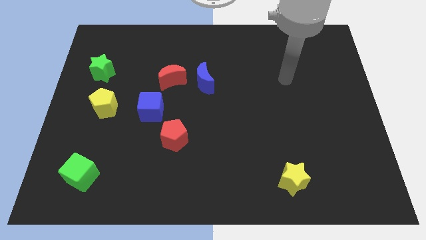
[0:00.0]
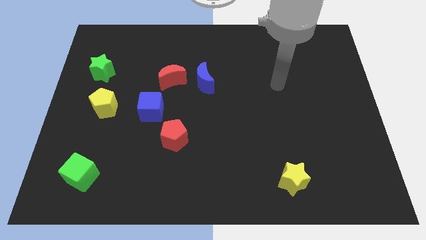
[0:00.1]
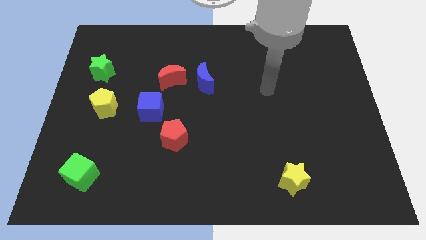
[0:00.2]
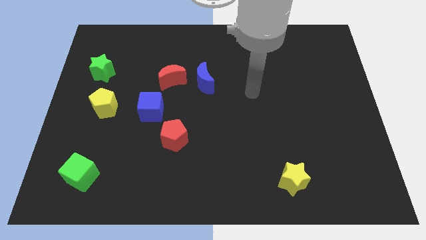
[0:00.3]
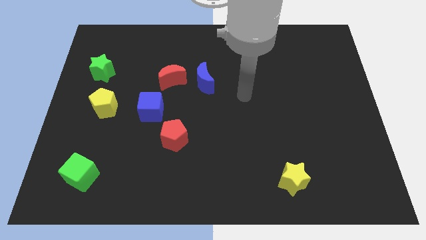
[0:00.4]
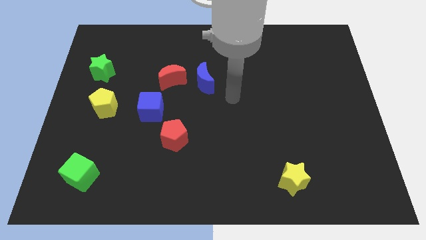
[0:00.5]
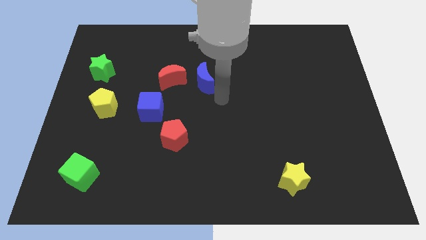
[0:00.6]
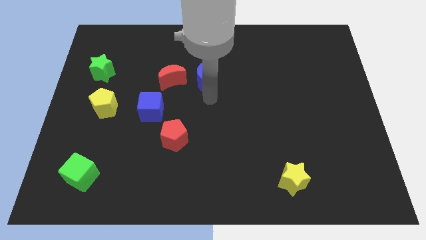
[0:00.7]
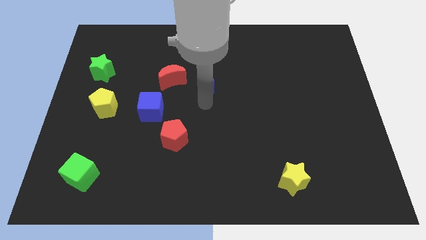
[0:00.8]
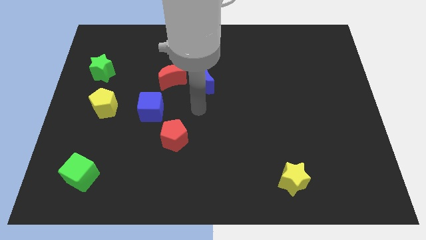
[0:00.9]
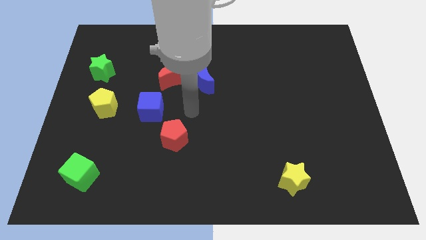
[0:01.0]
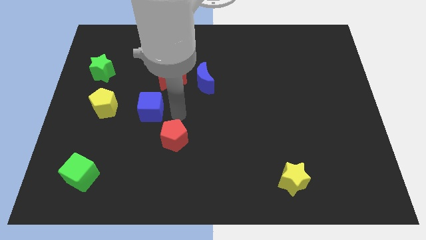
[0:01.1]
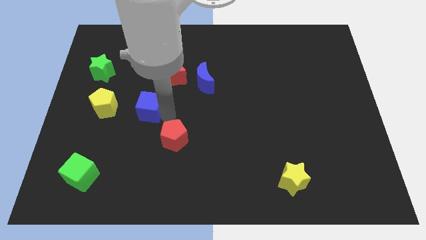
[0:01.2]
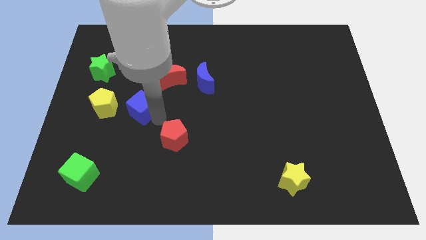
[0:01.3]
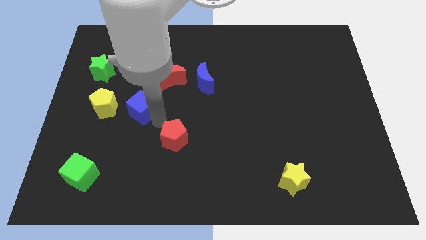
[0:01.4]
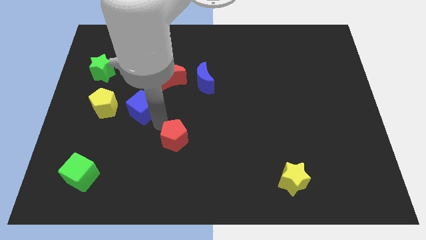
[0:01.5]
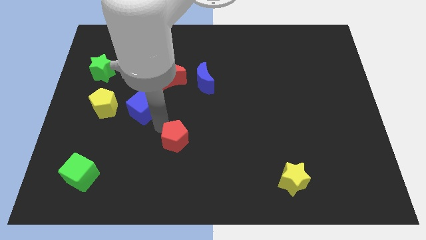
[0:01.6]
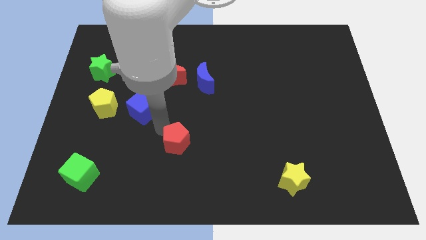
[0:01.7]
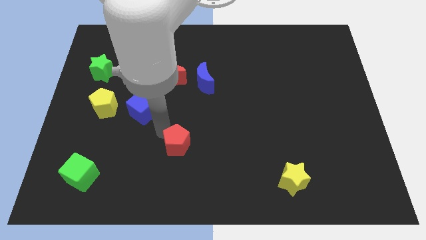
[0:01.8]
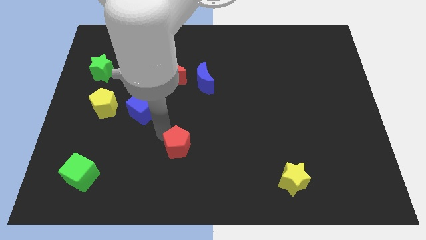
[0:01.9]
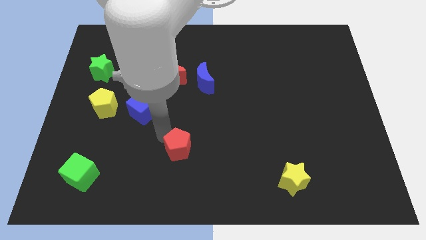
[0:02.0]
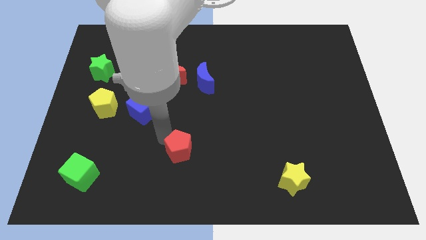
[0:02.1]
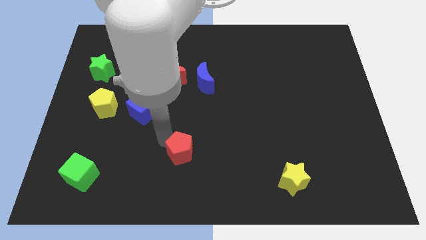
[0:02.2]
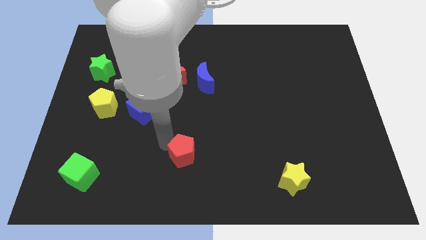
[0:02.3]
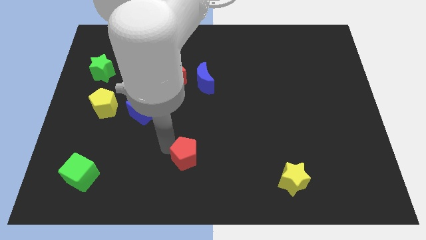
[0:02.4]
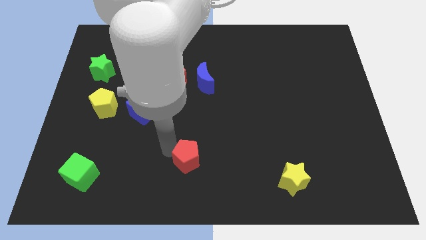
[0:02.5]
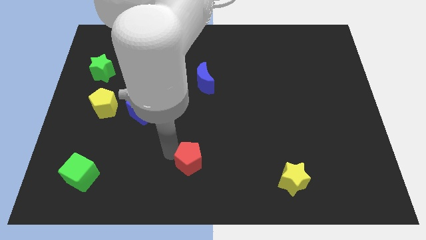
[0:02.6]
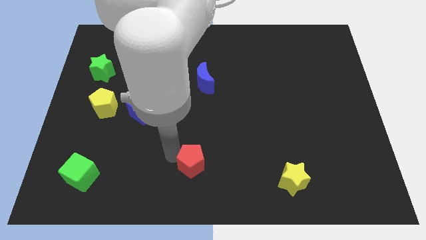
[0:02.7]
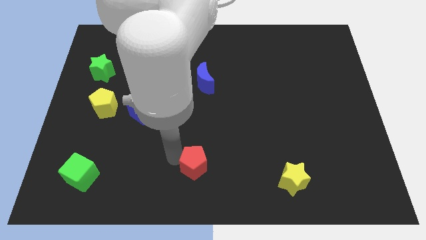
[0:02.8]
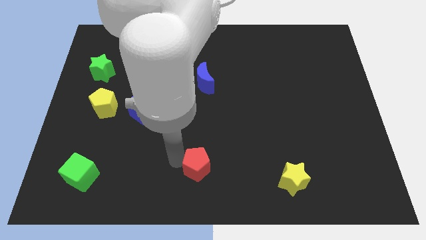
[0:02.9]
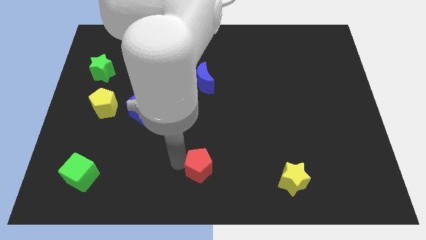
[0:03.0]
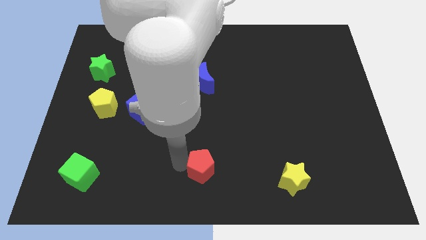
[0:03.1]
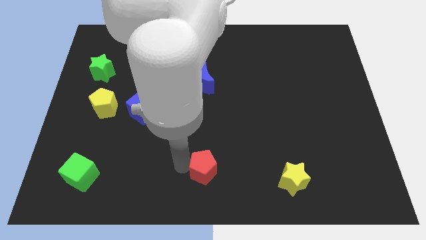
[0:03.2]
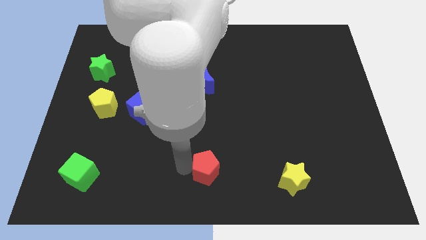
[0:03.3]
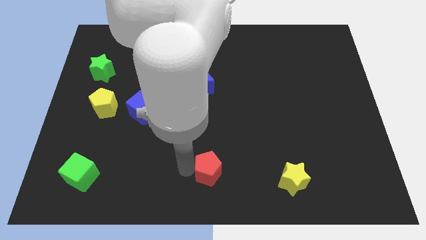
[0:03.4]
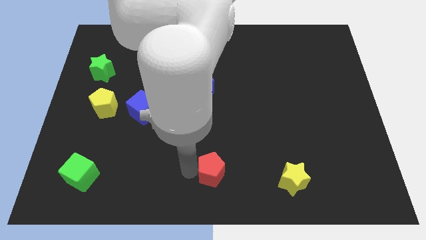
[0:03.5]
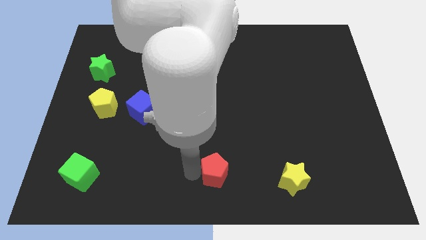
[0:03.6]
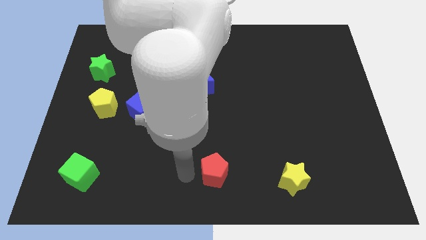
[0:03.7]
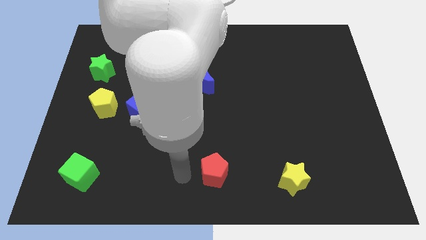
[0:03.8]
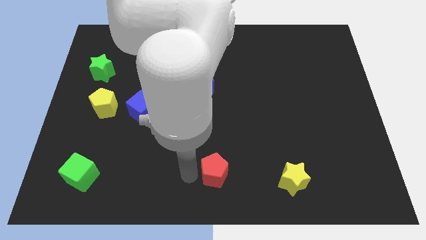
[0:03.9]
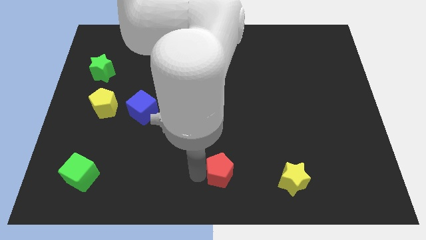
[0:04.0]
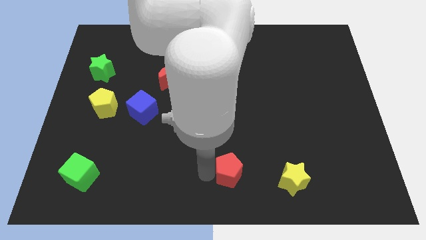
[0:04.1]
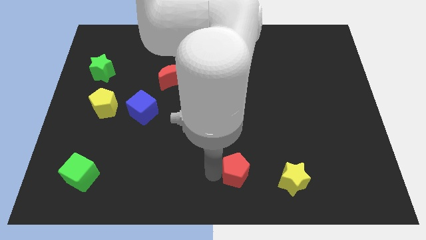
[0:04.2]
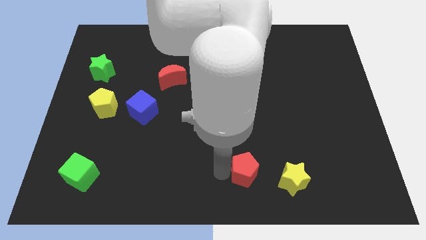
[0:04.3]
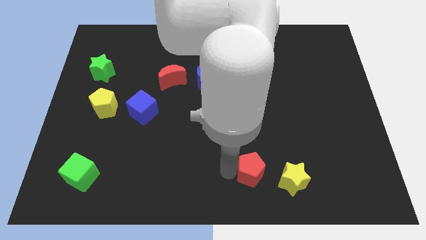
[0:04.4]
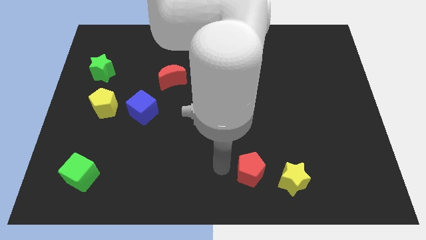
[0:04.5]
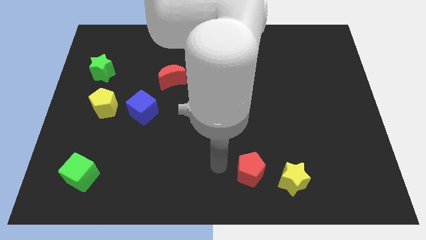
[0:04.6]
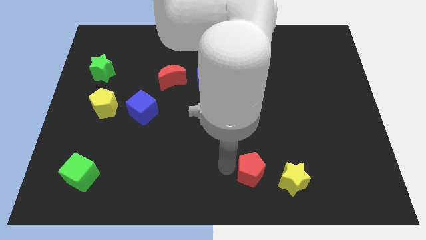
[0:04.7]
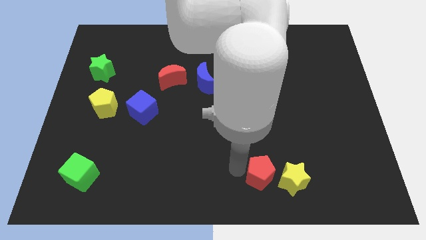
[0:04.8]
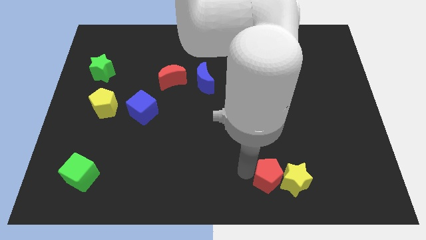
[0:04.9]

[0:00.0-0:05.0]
slide the red pentagon towards the yellow star

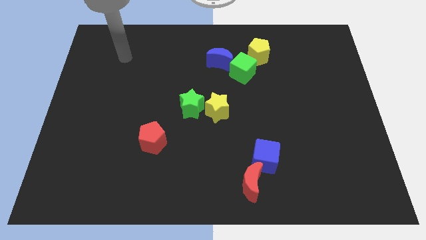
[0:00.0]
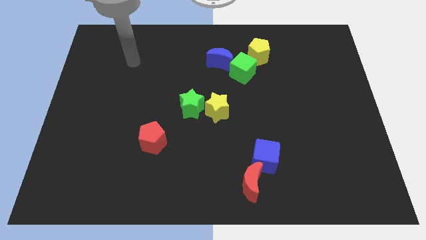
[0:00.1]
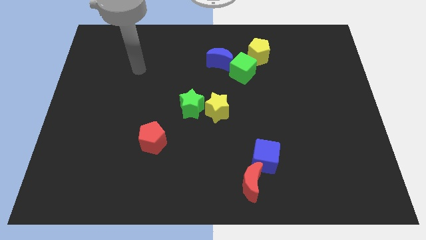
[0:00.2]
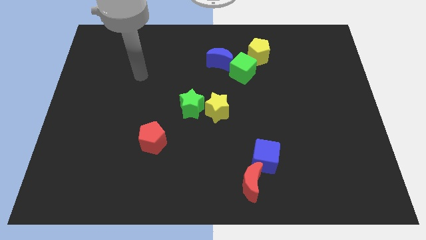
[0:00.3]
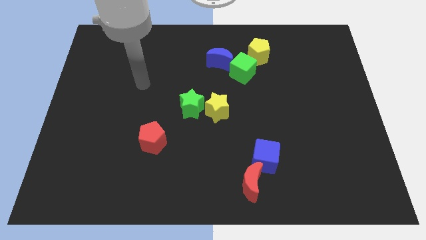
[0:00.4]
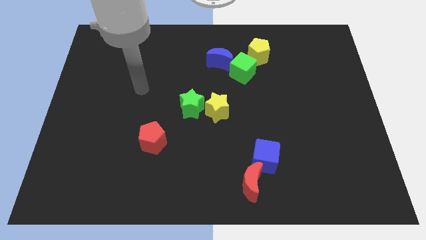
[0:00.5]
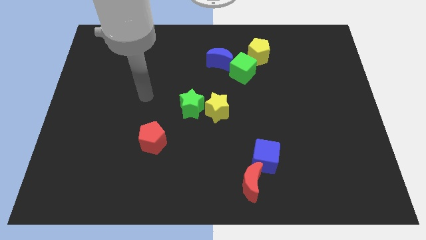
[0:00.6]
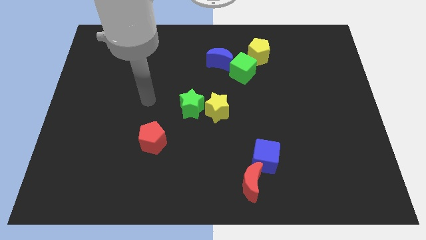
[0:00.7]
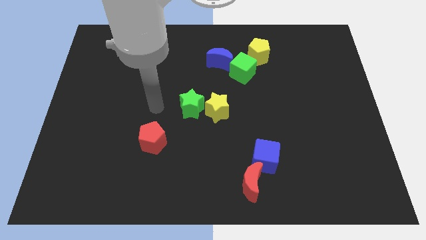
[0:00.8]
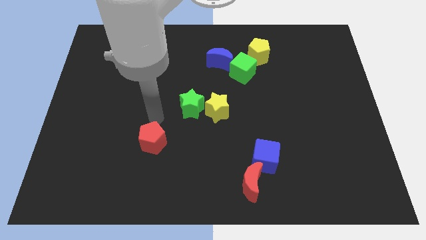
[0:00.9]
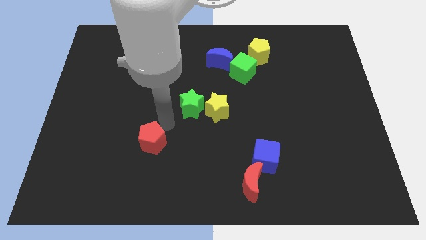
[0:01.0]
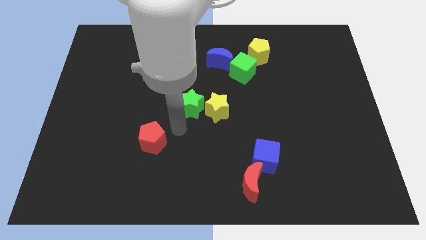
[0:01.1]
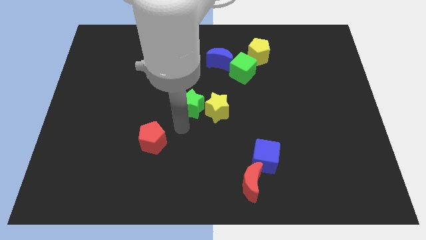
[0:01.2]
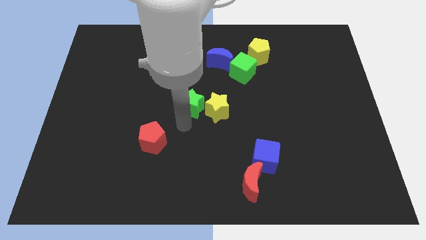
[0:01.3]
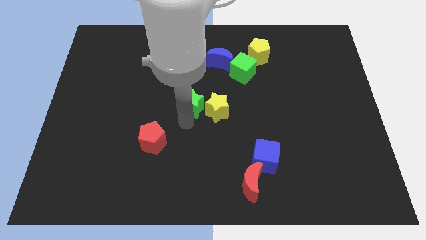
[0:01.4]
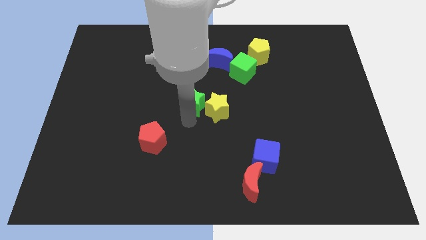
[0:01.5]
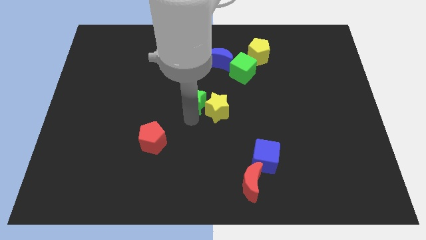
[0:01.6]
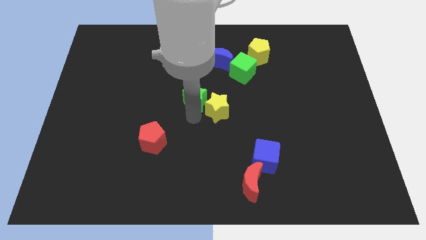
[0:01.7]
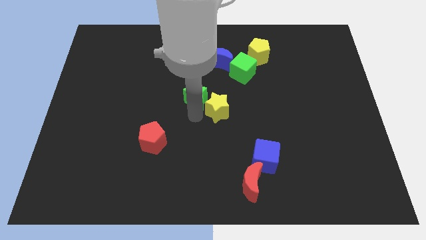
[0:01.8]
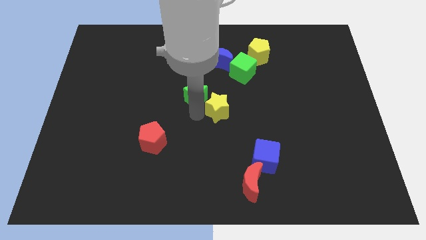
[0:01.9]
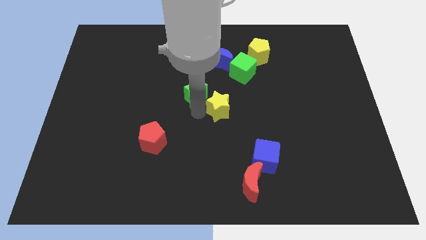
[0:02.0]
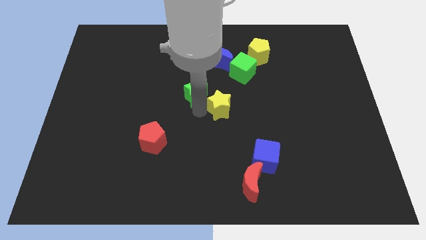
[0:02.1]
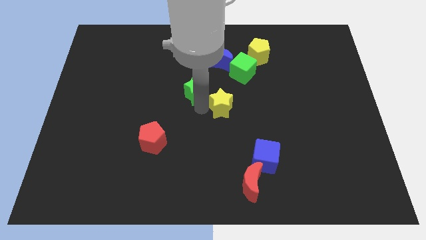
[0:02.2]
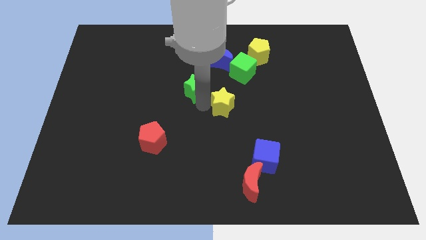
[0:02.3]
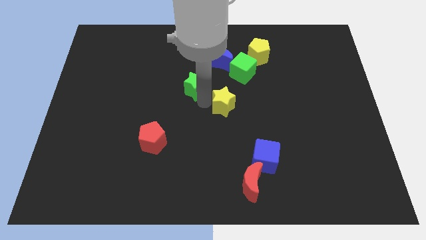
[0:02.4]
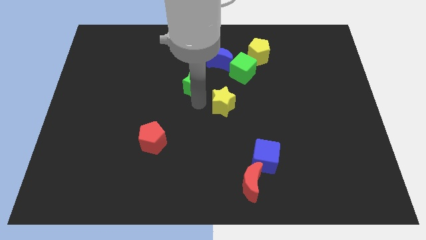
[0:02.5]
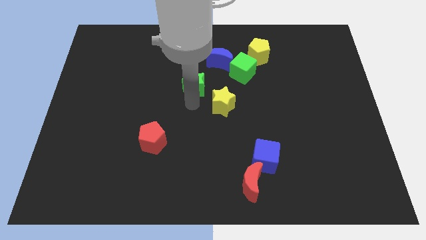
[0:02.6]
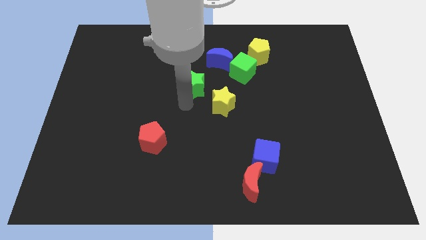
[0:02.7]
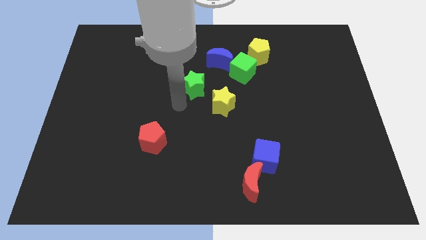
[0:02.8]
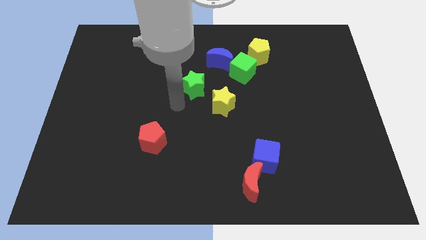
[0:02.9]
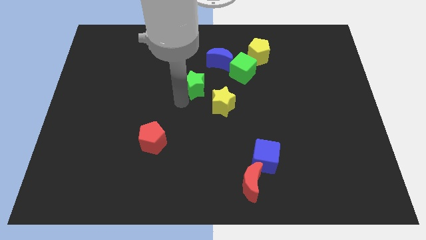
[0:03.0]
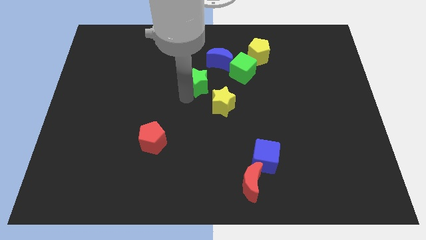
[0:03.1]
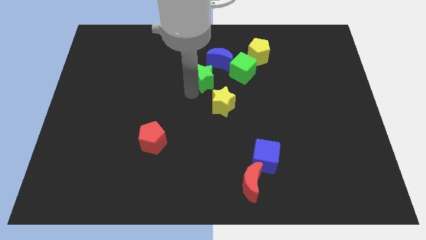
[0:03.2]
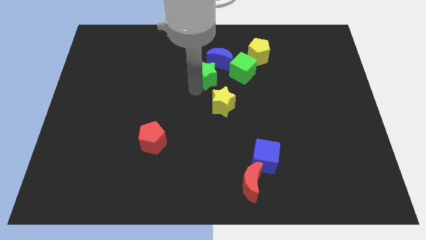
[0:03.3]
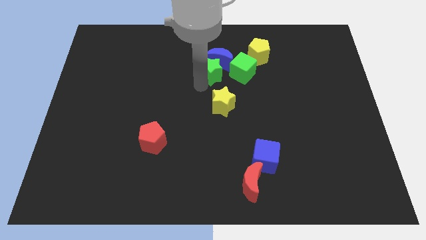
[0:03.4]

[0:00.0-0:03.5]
push the green star towards the blue moon
